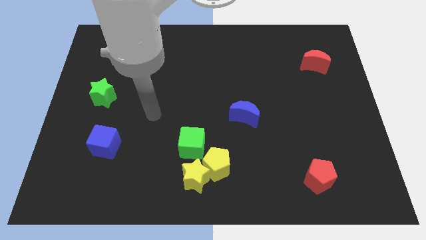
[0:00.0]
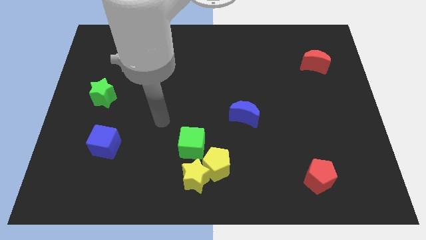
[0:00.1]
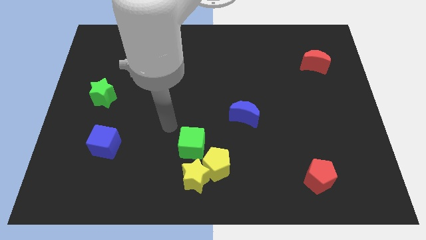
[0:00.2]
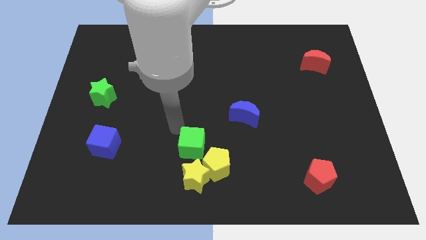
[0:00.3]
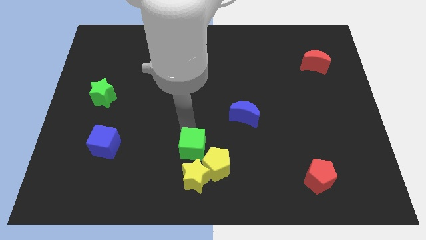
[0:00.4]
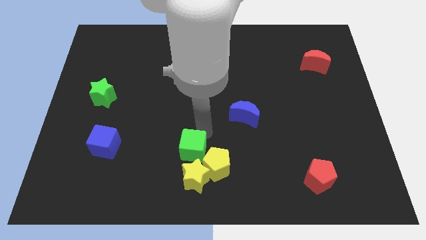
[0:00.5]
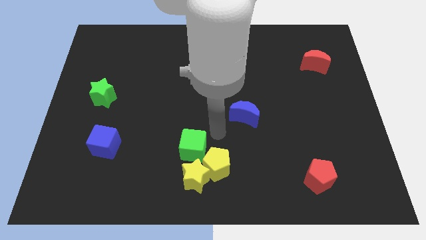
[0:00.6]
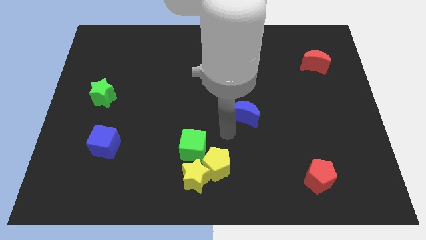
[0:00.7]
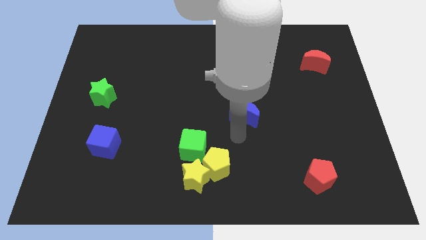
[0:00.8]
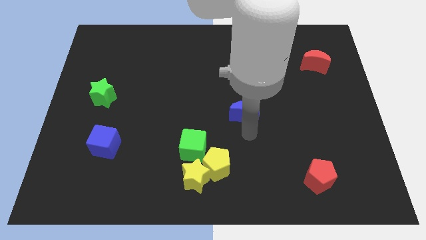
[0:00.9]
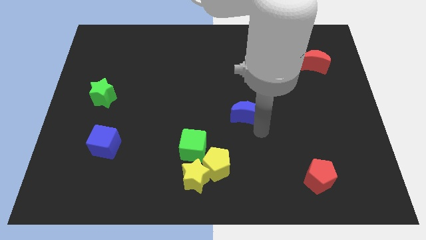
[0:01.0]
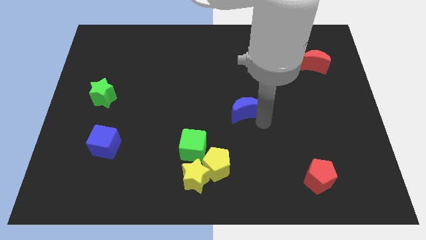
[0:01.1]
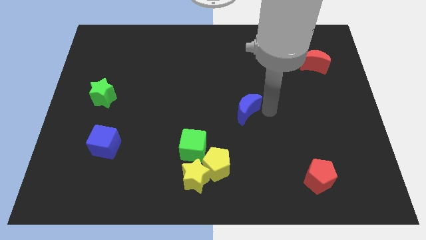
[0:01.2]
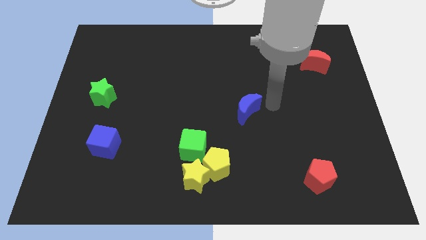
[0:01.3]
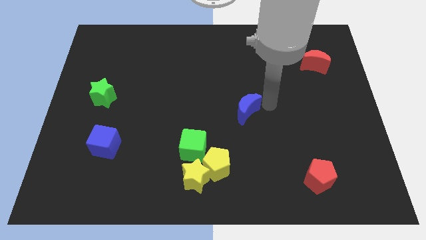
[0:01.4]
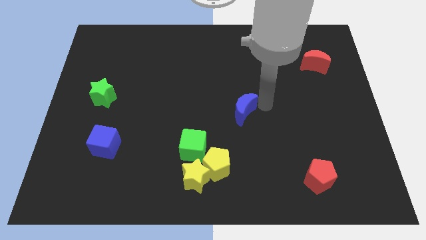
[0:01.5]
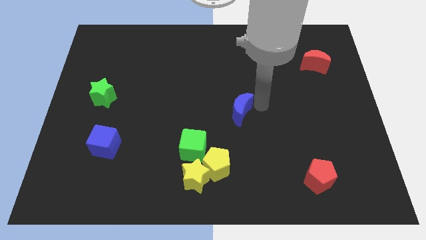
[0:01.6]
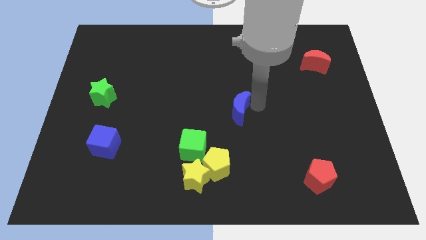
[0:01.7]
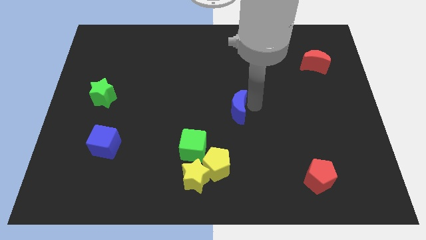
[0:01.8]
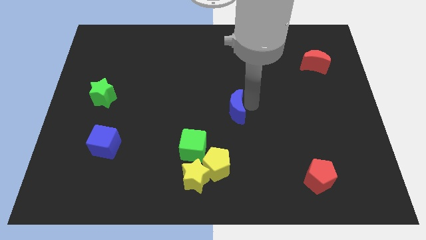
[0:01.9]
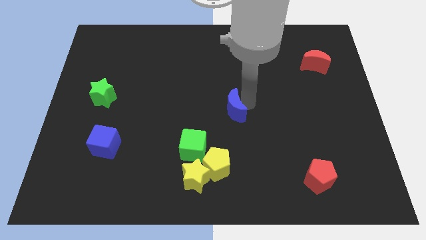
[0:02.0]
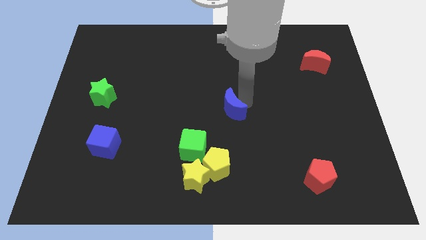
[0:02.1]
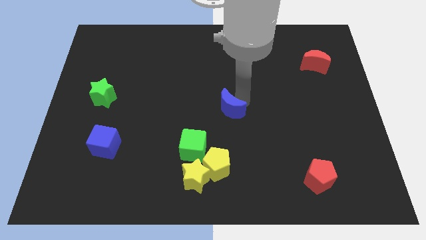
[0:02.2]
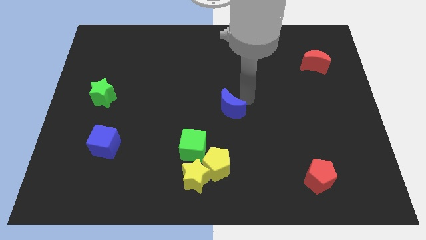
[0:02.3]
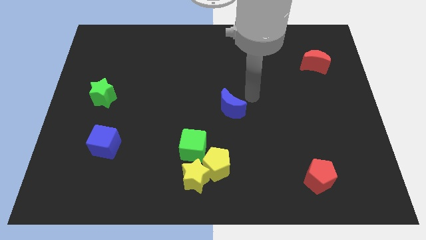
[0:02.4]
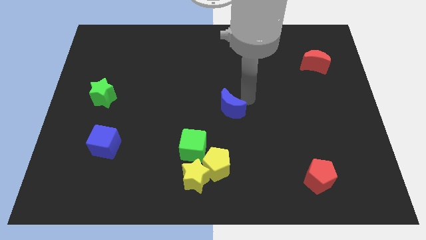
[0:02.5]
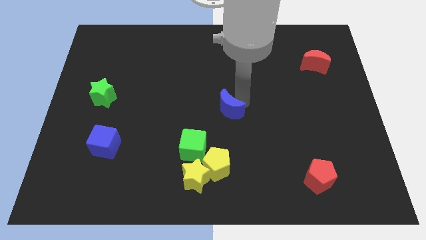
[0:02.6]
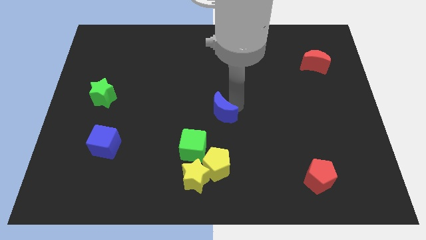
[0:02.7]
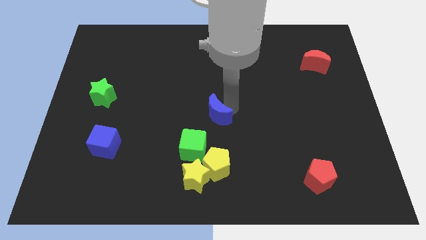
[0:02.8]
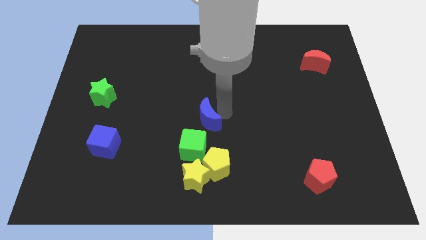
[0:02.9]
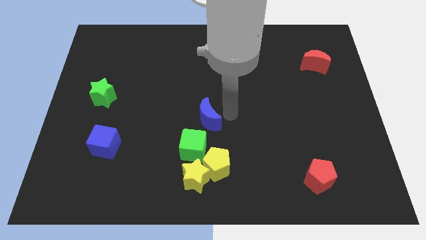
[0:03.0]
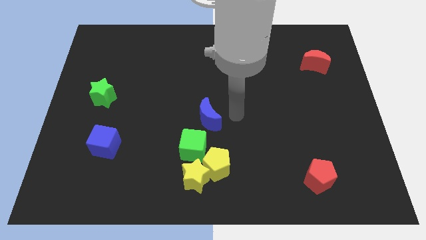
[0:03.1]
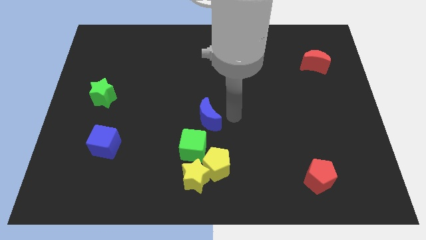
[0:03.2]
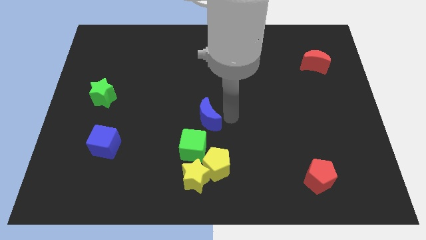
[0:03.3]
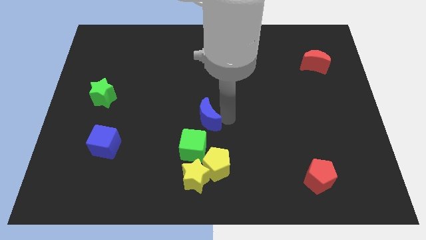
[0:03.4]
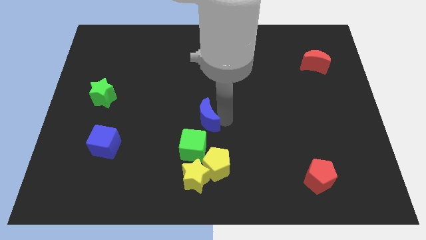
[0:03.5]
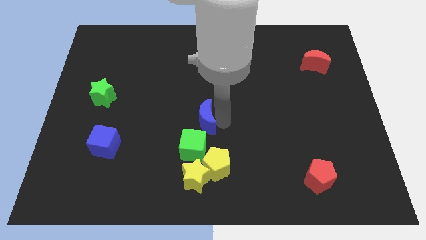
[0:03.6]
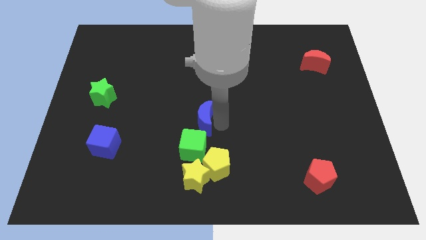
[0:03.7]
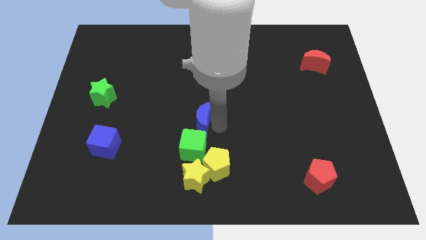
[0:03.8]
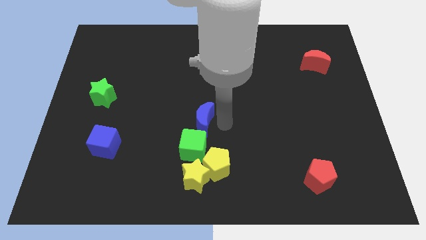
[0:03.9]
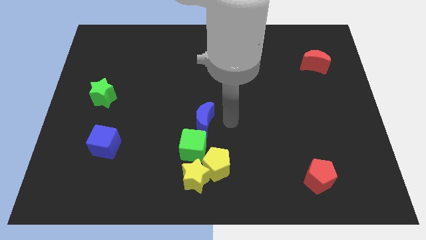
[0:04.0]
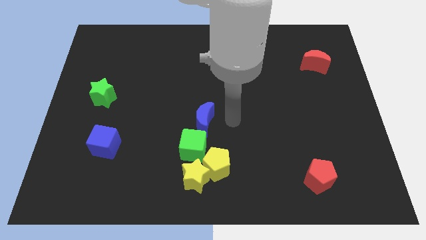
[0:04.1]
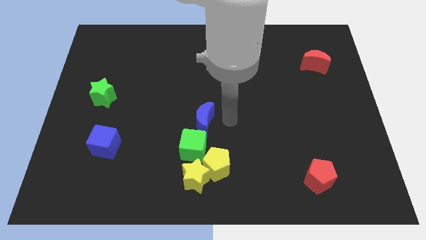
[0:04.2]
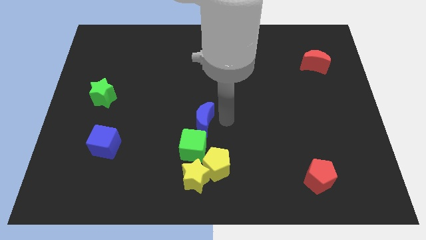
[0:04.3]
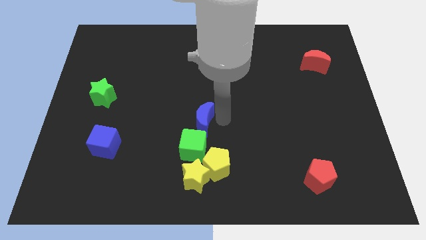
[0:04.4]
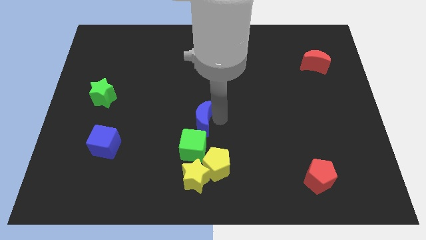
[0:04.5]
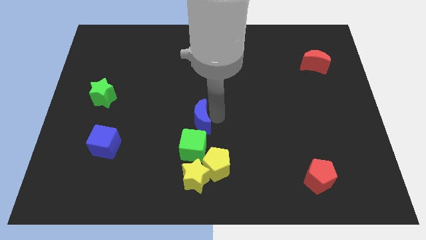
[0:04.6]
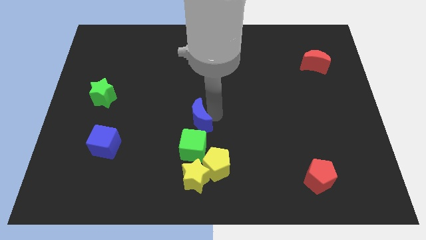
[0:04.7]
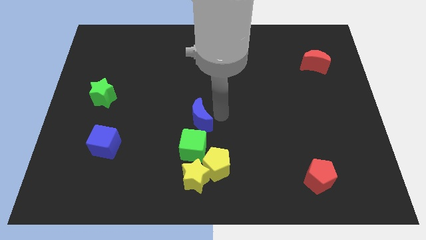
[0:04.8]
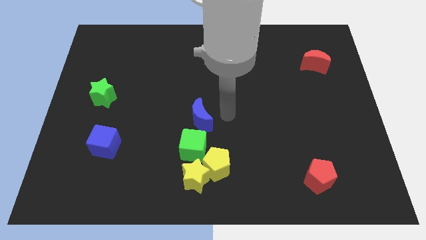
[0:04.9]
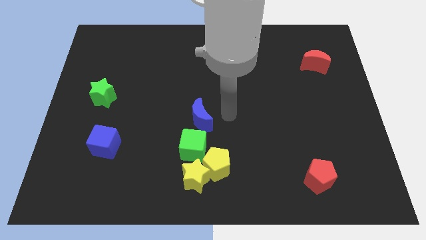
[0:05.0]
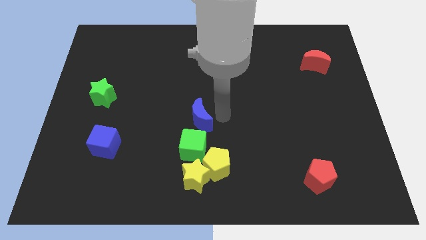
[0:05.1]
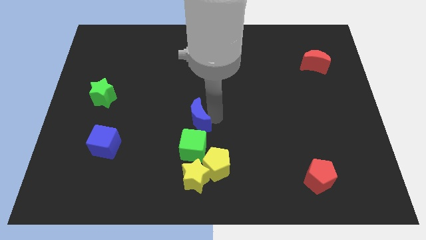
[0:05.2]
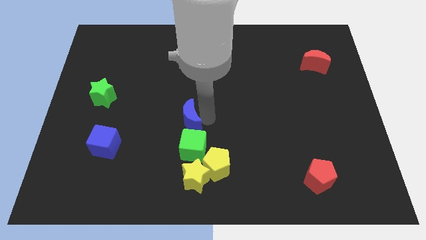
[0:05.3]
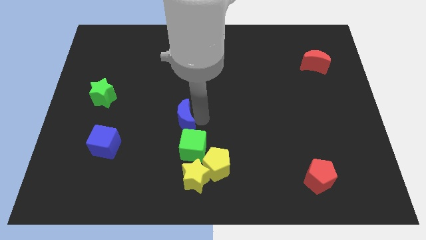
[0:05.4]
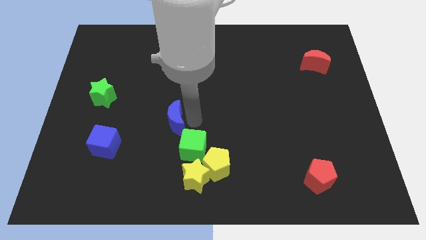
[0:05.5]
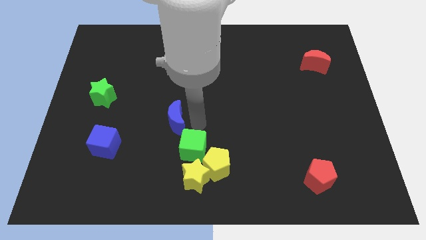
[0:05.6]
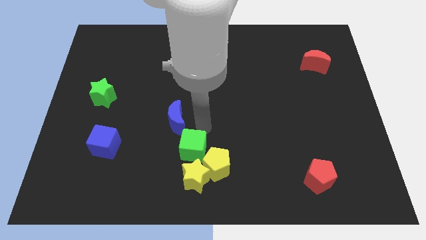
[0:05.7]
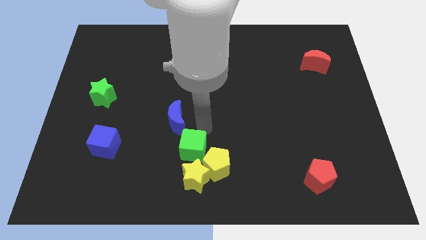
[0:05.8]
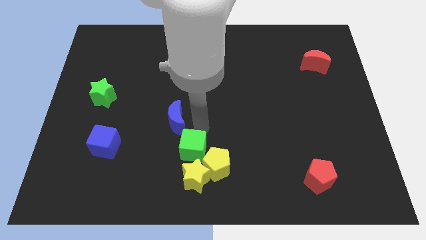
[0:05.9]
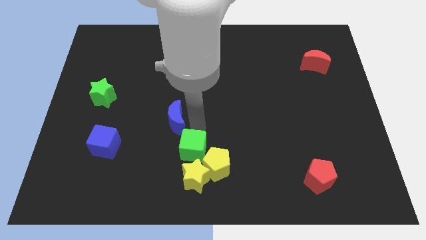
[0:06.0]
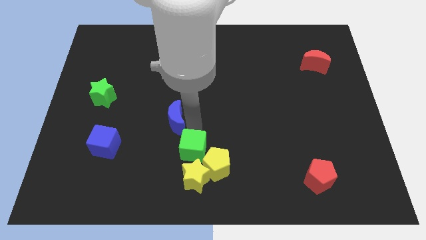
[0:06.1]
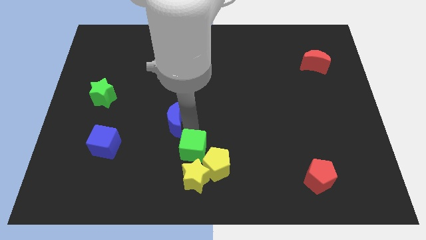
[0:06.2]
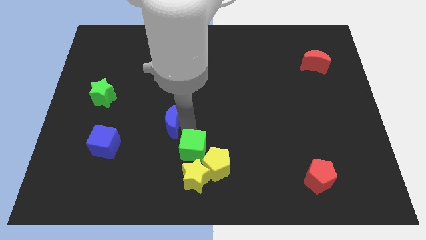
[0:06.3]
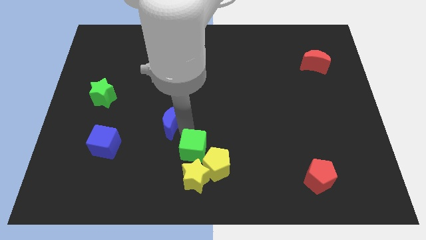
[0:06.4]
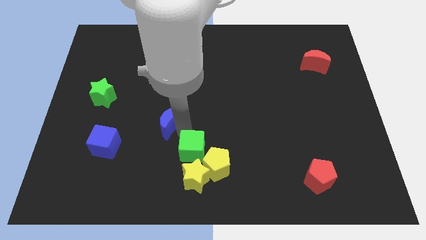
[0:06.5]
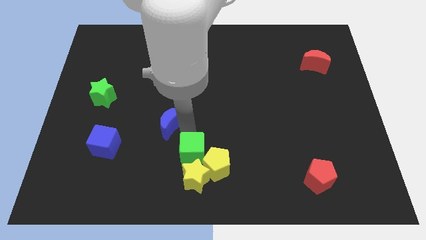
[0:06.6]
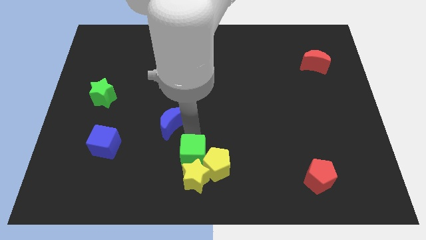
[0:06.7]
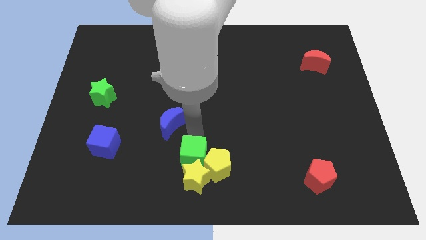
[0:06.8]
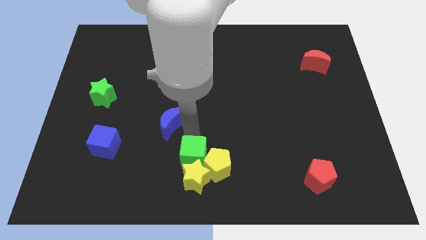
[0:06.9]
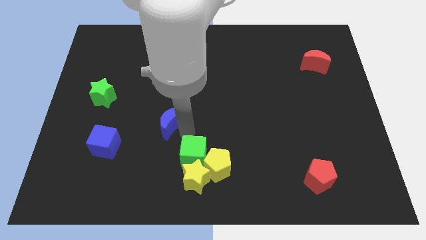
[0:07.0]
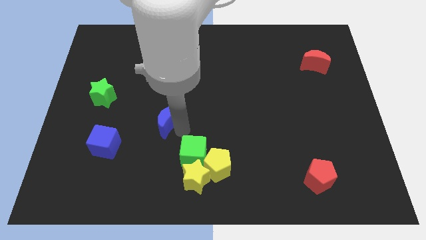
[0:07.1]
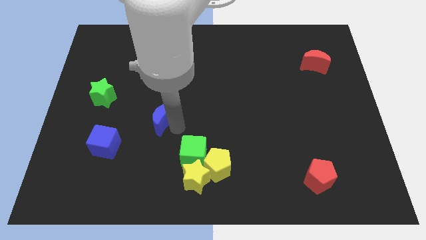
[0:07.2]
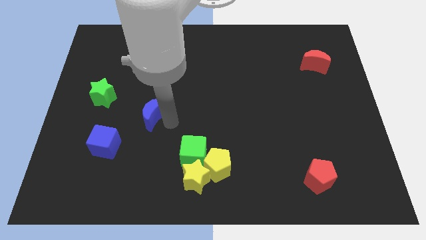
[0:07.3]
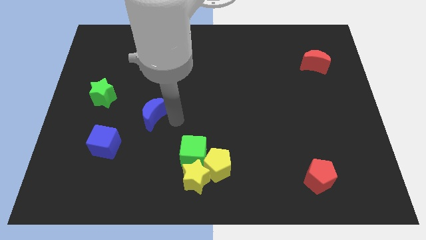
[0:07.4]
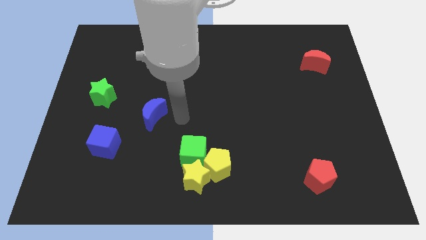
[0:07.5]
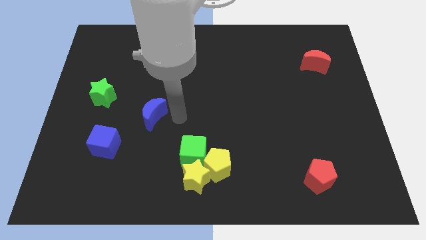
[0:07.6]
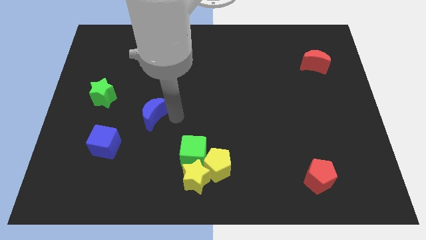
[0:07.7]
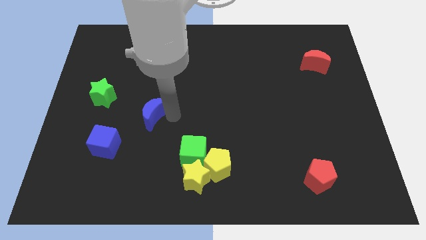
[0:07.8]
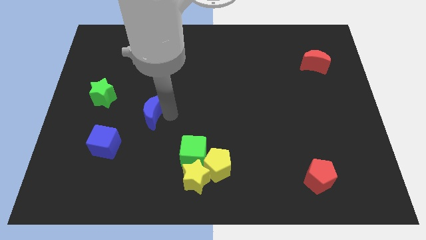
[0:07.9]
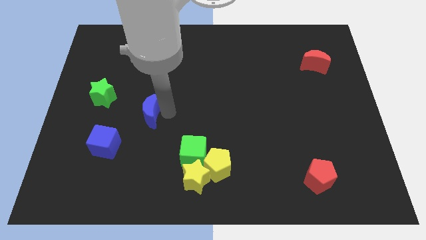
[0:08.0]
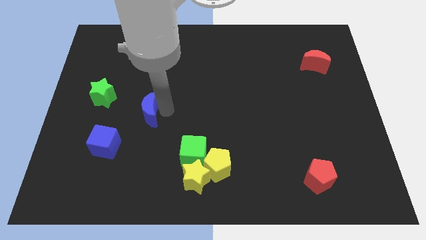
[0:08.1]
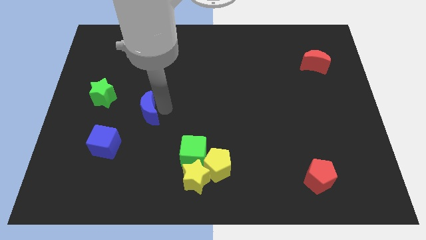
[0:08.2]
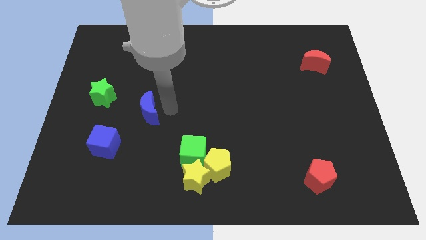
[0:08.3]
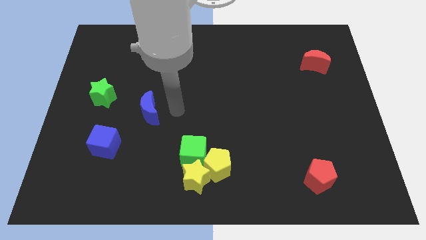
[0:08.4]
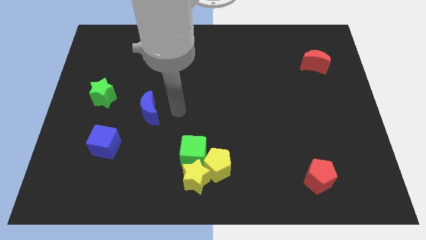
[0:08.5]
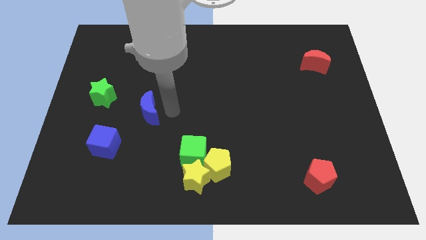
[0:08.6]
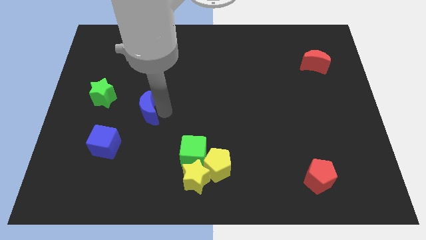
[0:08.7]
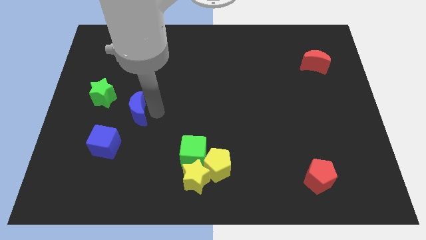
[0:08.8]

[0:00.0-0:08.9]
put the blue moon diagonally down and to the right of the green star
